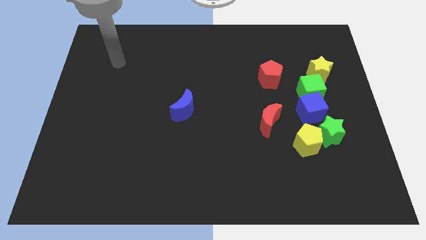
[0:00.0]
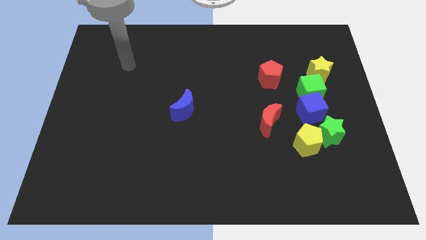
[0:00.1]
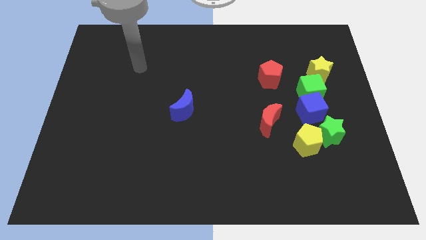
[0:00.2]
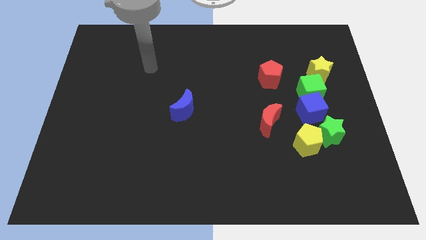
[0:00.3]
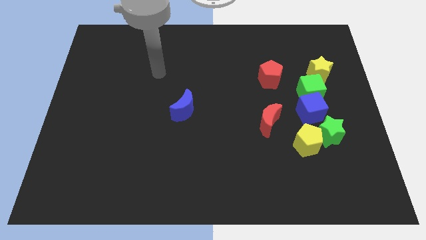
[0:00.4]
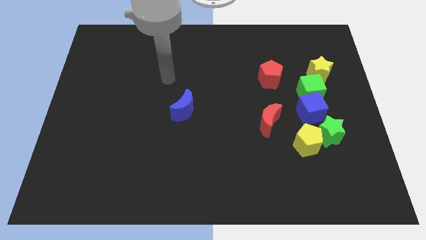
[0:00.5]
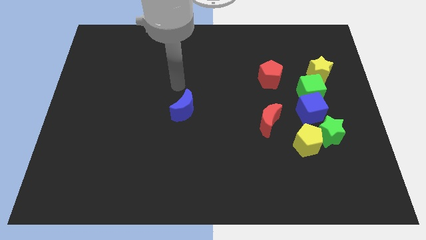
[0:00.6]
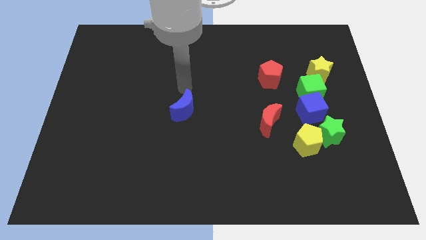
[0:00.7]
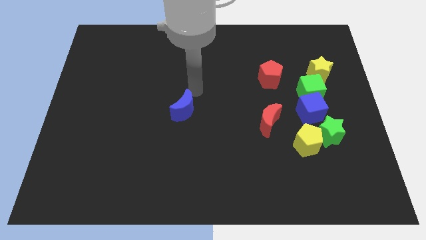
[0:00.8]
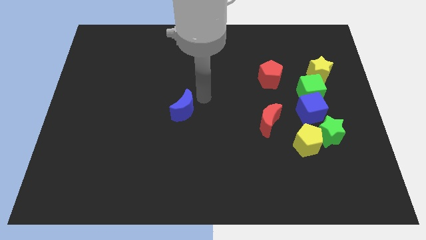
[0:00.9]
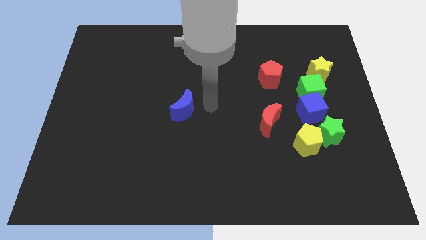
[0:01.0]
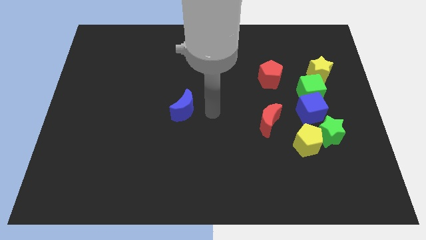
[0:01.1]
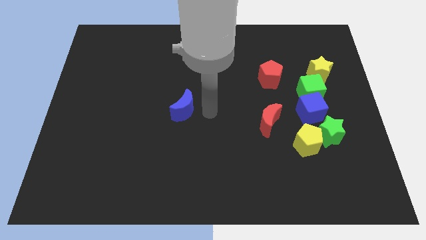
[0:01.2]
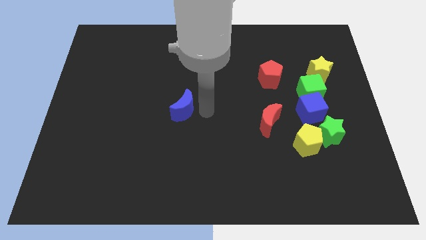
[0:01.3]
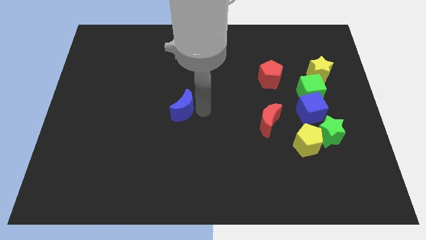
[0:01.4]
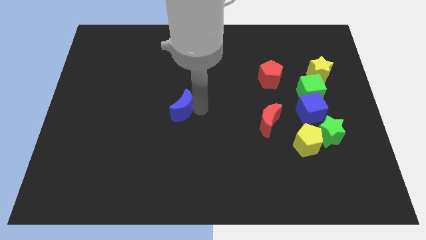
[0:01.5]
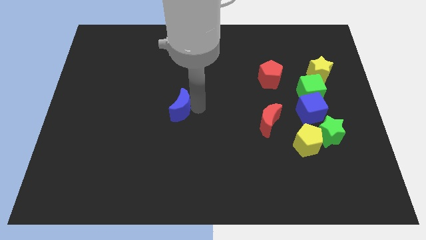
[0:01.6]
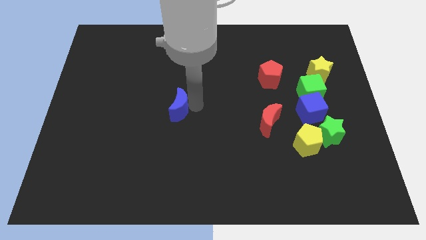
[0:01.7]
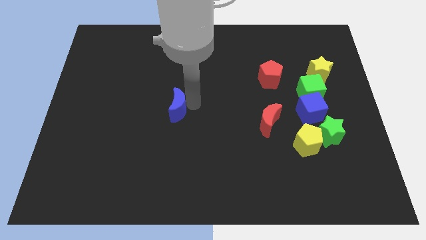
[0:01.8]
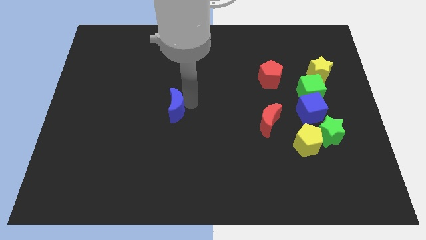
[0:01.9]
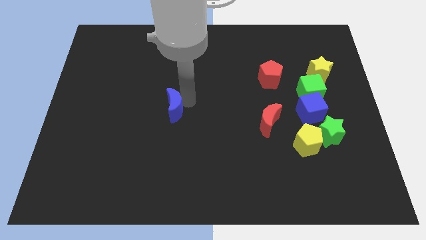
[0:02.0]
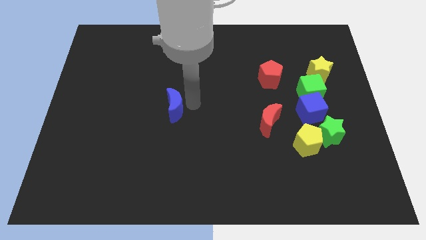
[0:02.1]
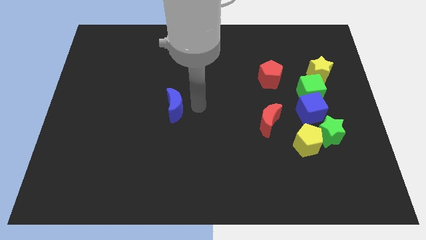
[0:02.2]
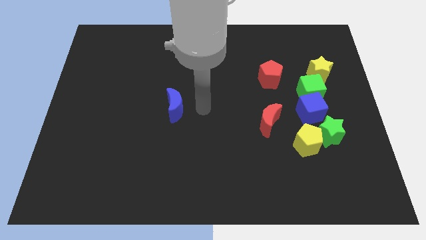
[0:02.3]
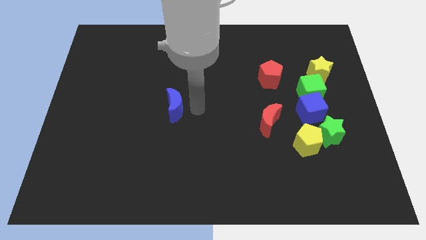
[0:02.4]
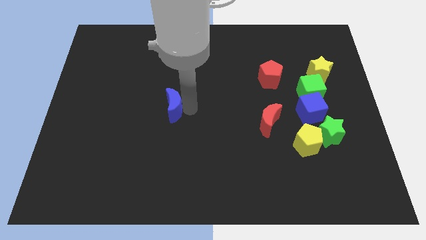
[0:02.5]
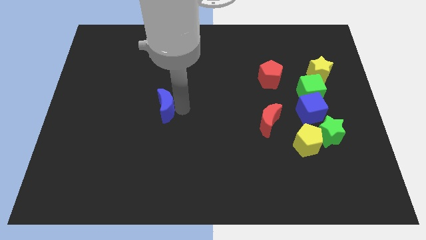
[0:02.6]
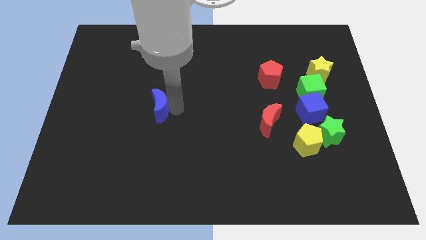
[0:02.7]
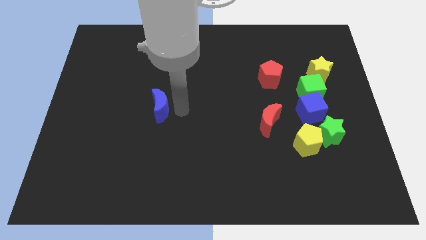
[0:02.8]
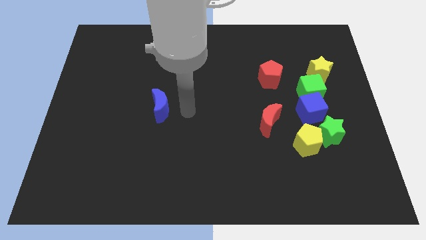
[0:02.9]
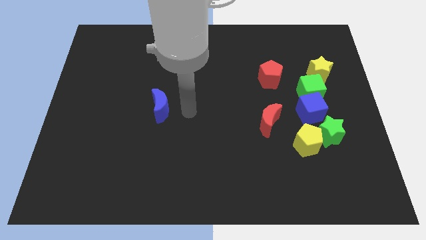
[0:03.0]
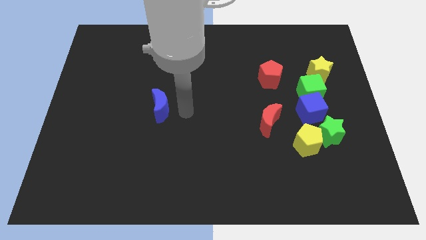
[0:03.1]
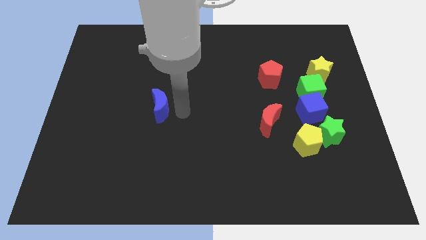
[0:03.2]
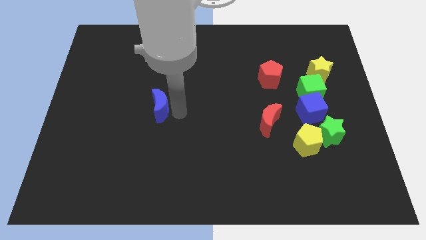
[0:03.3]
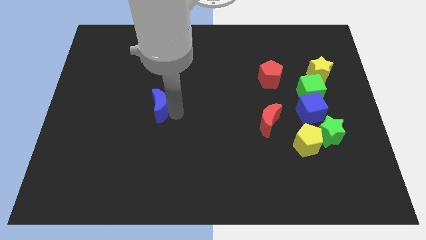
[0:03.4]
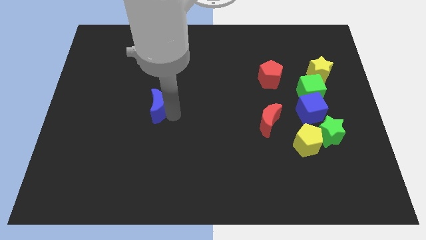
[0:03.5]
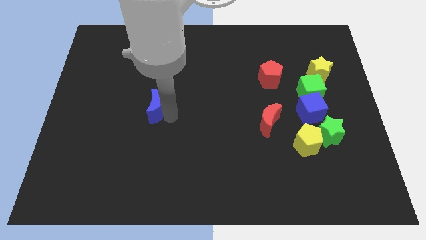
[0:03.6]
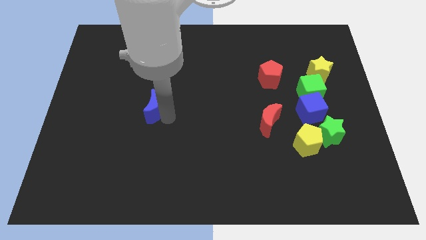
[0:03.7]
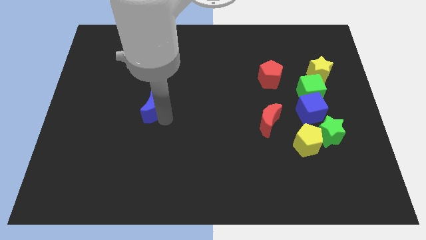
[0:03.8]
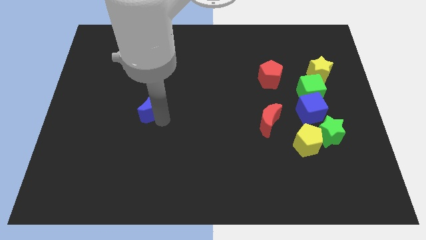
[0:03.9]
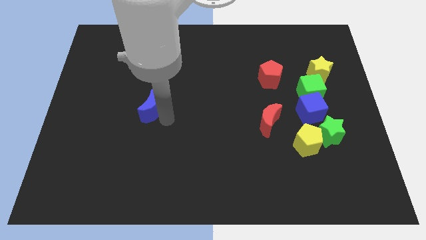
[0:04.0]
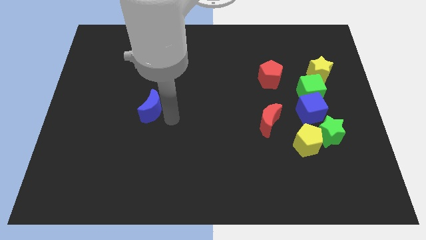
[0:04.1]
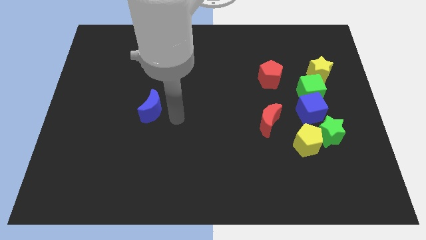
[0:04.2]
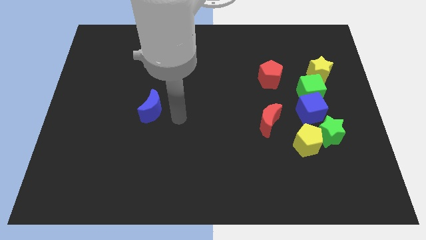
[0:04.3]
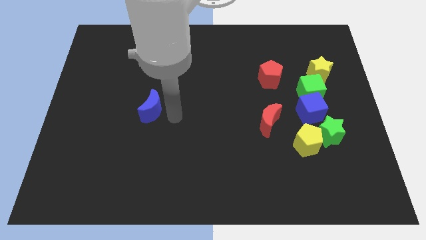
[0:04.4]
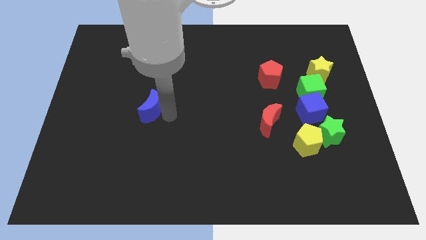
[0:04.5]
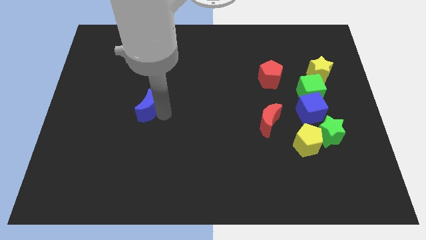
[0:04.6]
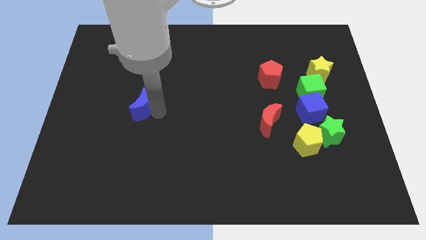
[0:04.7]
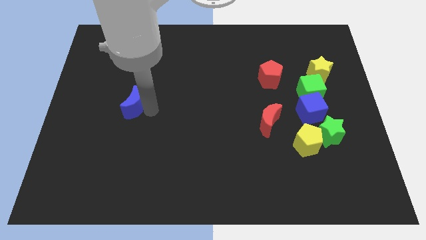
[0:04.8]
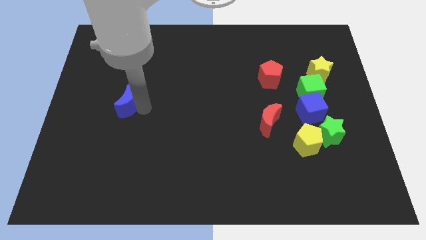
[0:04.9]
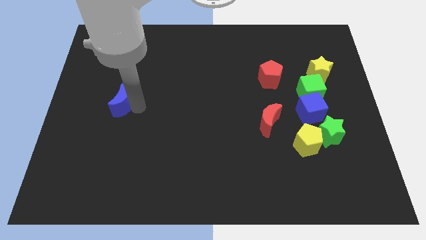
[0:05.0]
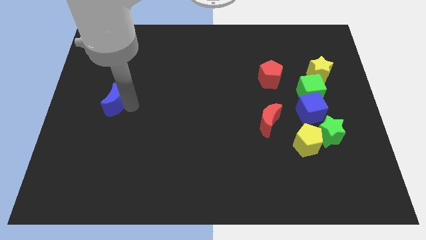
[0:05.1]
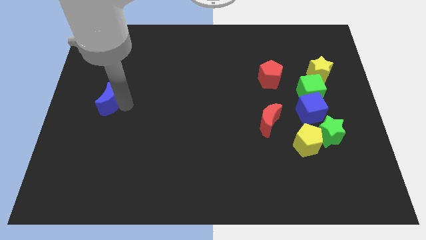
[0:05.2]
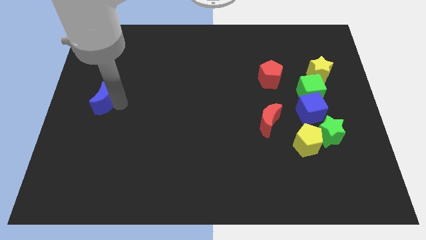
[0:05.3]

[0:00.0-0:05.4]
move the blue moon to the left side of the board
